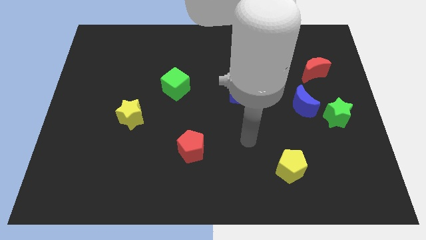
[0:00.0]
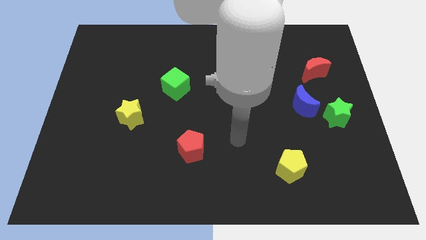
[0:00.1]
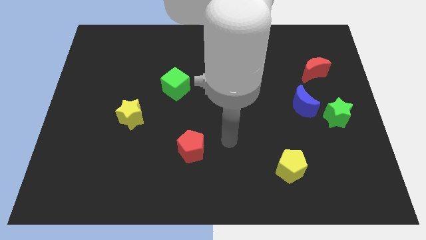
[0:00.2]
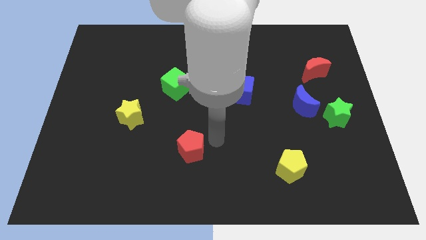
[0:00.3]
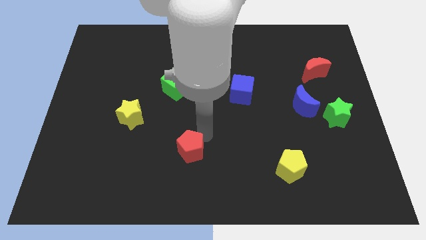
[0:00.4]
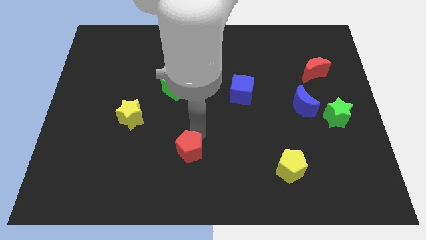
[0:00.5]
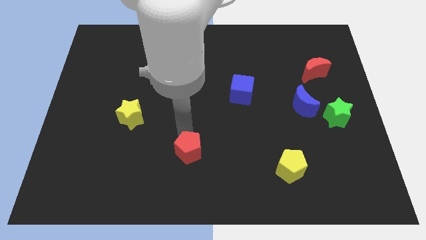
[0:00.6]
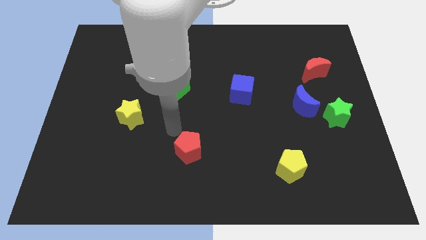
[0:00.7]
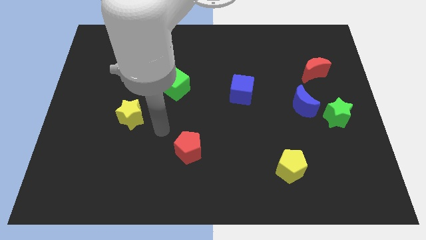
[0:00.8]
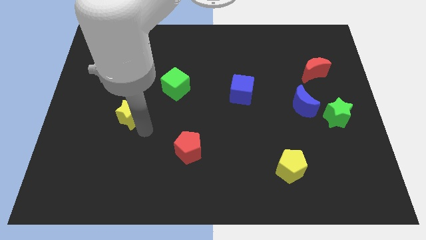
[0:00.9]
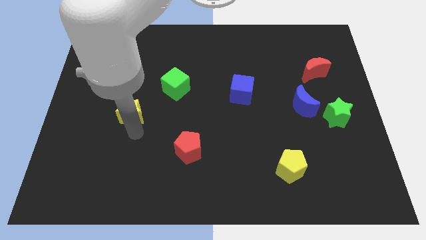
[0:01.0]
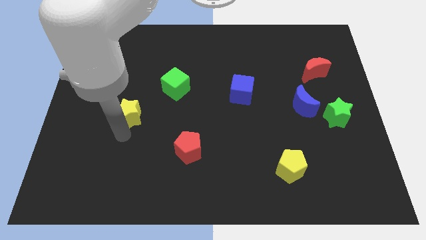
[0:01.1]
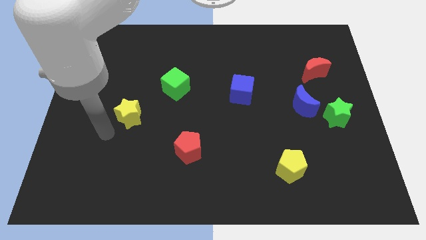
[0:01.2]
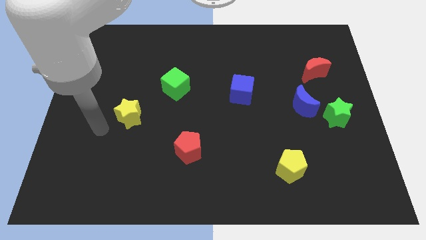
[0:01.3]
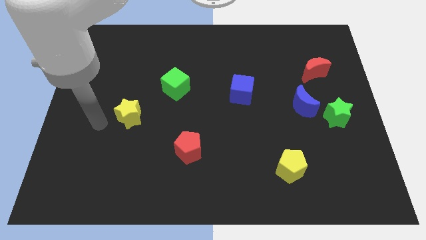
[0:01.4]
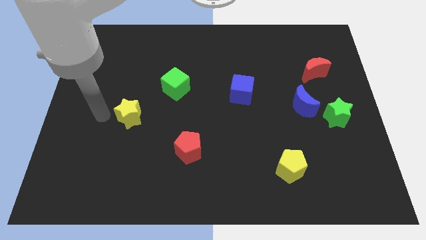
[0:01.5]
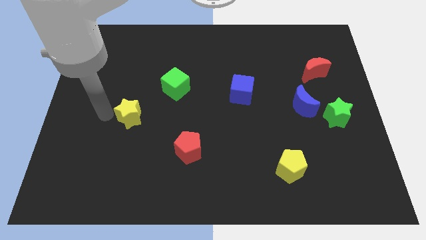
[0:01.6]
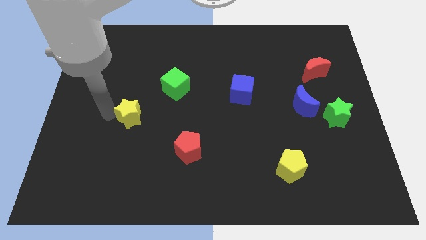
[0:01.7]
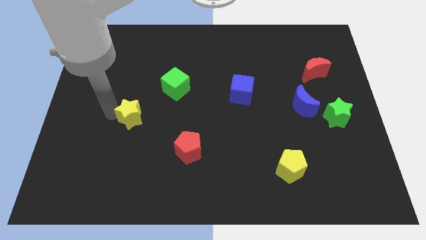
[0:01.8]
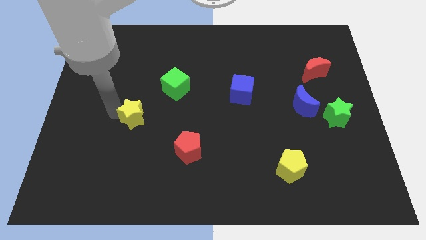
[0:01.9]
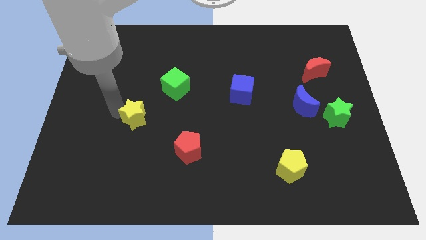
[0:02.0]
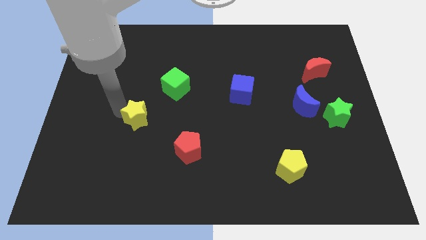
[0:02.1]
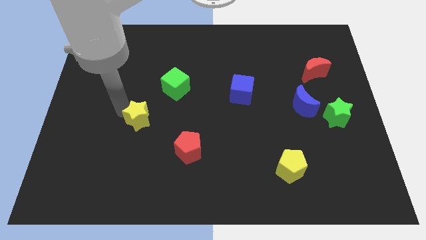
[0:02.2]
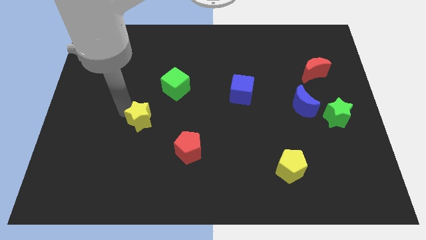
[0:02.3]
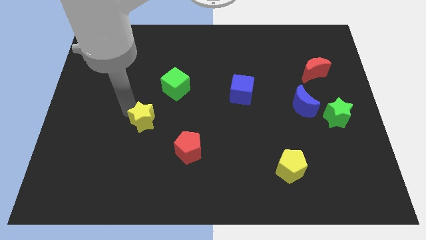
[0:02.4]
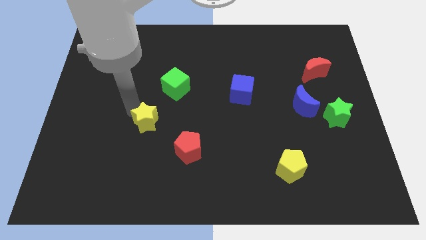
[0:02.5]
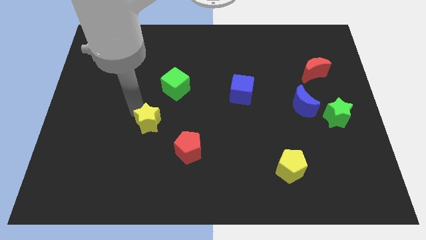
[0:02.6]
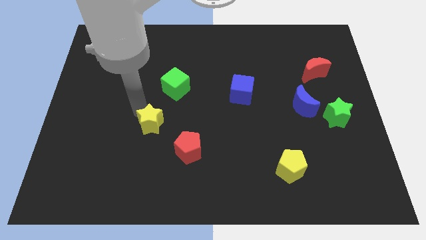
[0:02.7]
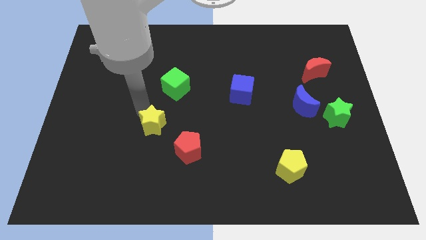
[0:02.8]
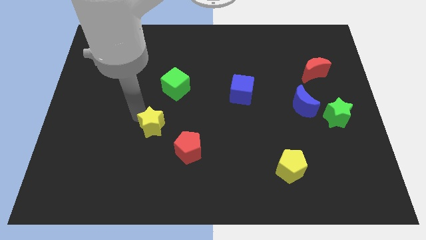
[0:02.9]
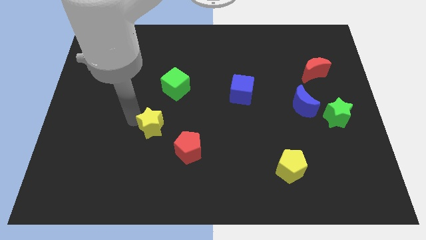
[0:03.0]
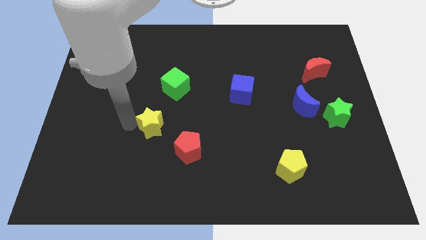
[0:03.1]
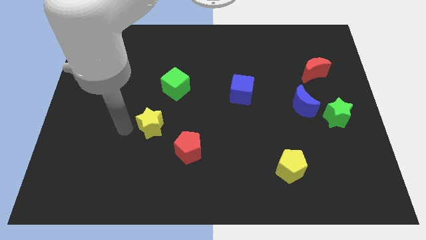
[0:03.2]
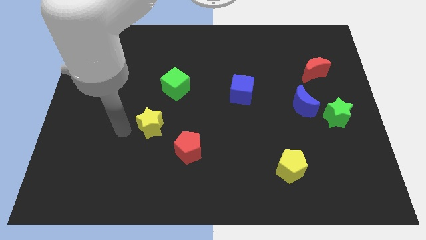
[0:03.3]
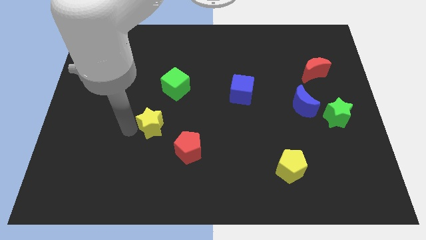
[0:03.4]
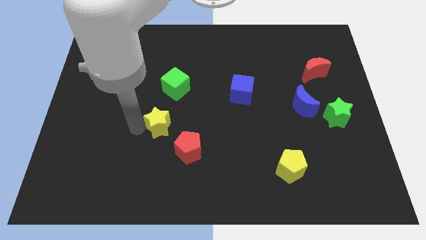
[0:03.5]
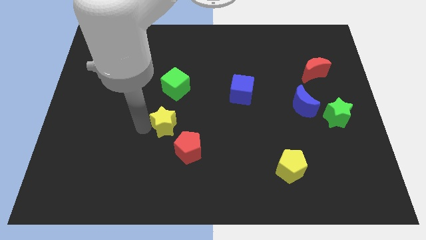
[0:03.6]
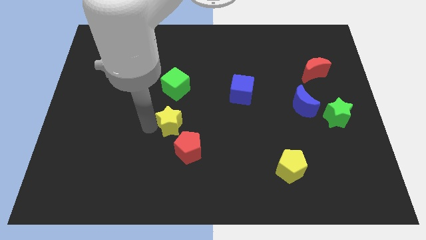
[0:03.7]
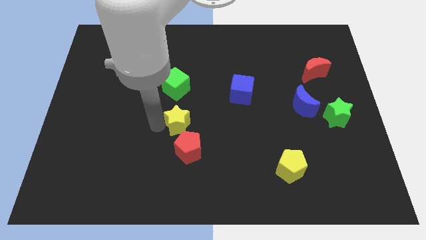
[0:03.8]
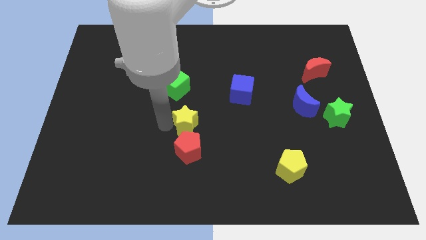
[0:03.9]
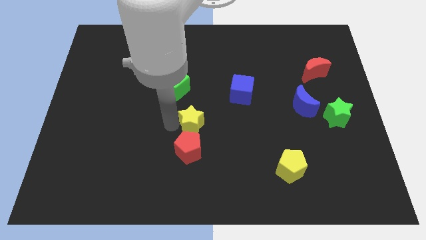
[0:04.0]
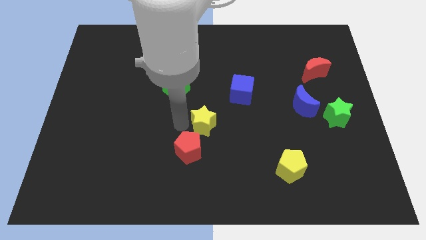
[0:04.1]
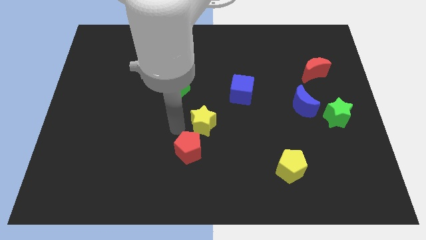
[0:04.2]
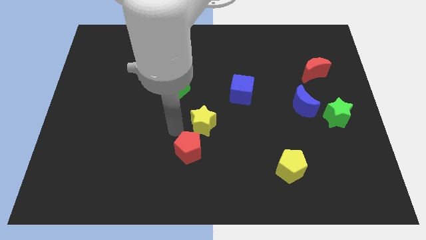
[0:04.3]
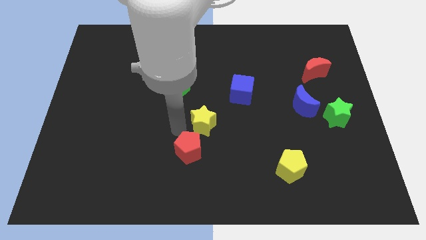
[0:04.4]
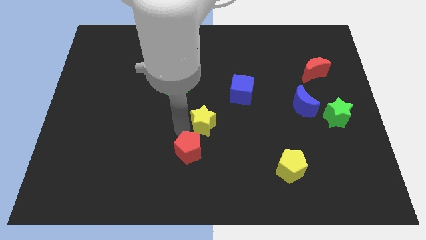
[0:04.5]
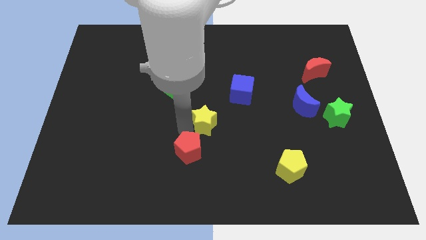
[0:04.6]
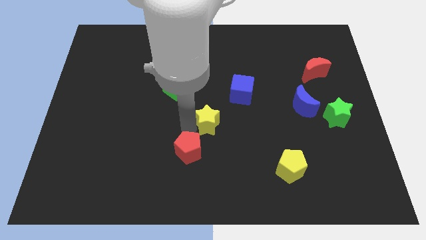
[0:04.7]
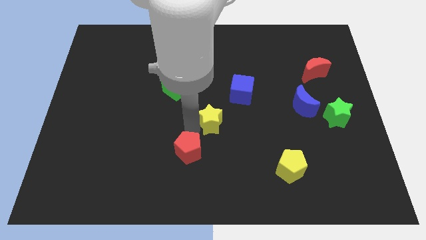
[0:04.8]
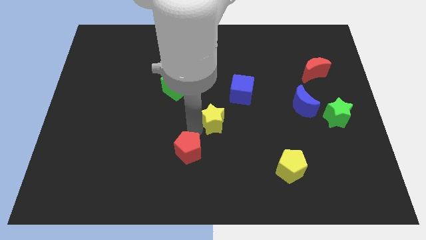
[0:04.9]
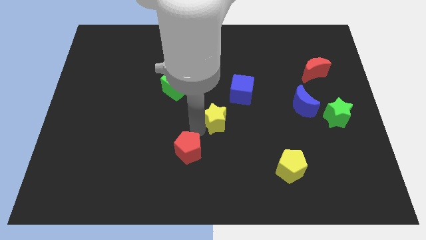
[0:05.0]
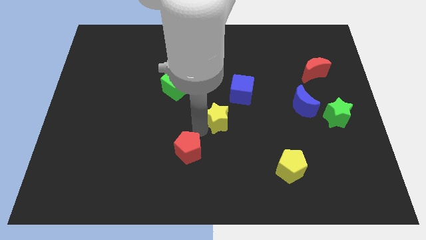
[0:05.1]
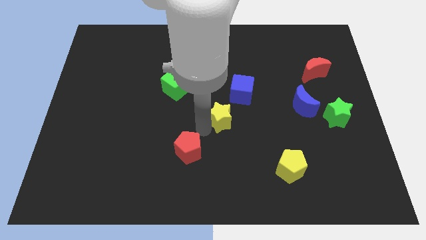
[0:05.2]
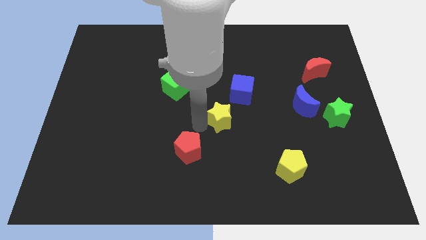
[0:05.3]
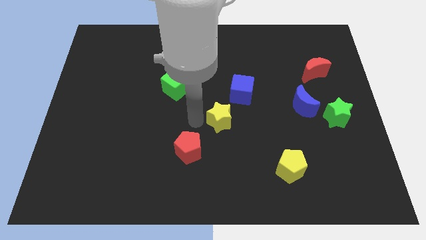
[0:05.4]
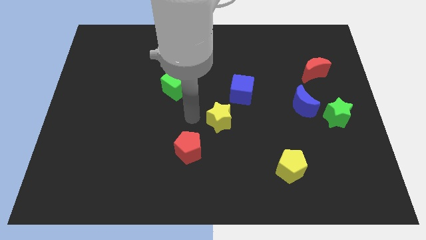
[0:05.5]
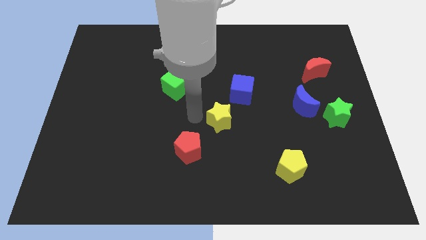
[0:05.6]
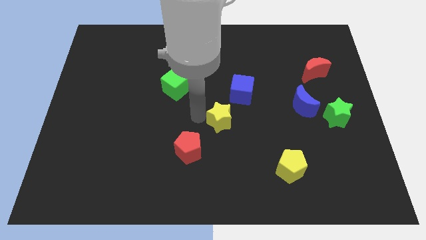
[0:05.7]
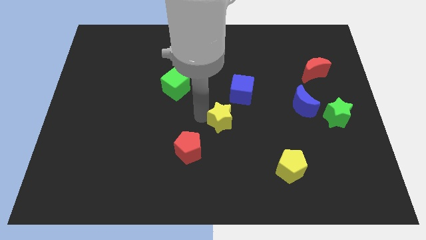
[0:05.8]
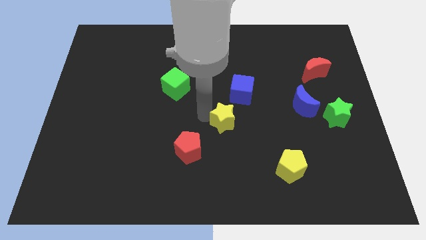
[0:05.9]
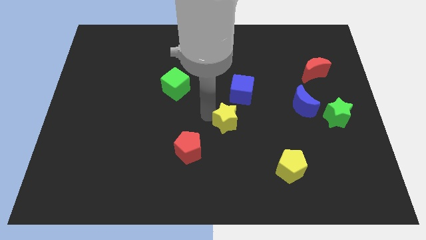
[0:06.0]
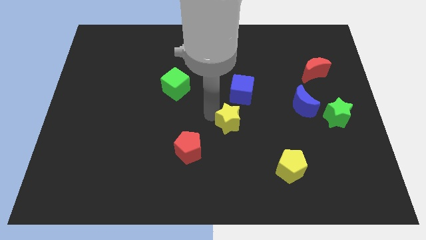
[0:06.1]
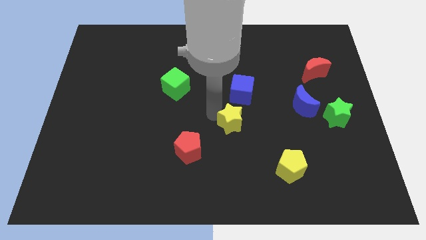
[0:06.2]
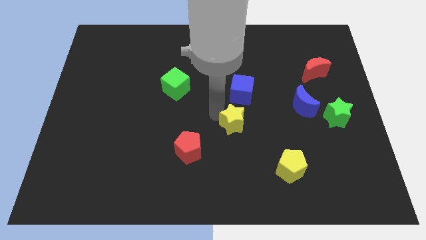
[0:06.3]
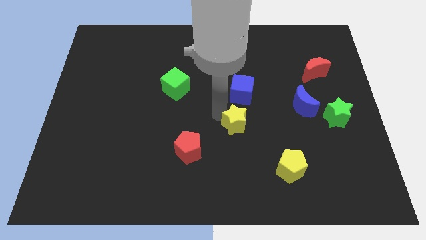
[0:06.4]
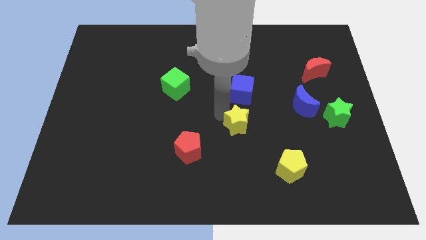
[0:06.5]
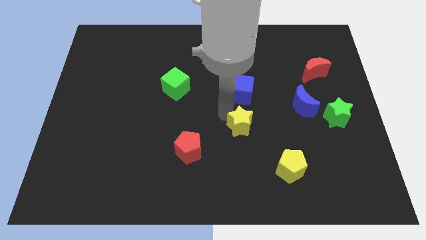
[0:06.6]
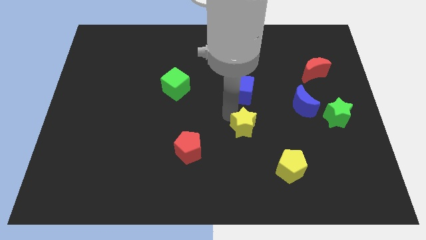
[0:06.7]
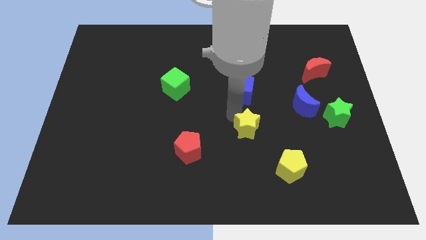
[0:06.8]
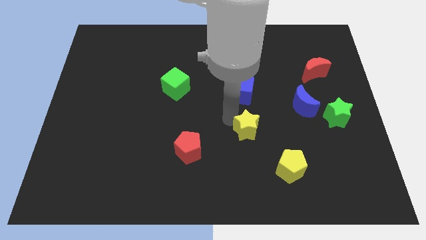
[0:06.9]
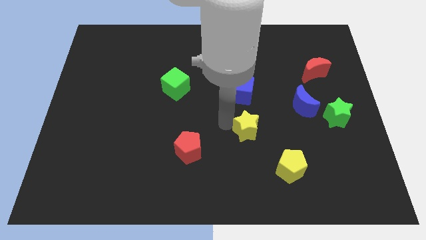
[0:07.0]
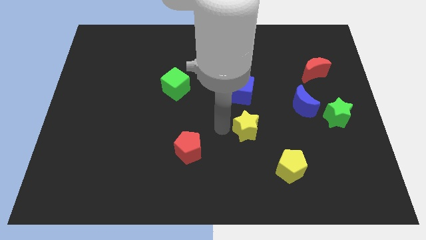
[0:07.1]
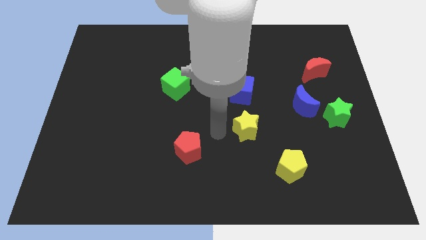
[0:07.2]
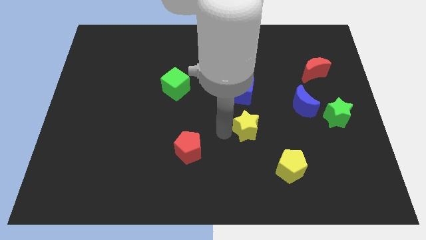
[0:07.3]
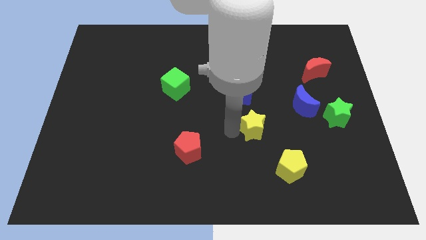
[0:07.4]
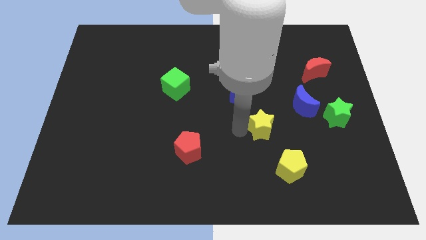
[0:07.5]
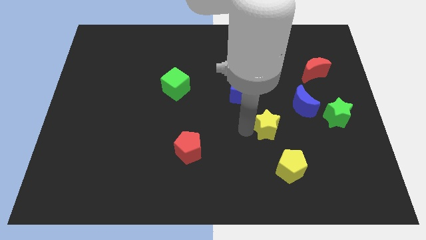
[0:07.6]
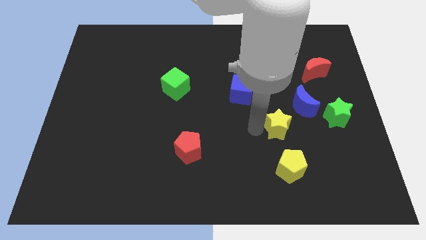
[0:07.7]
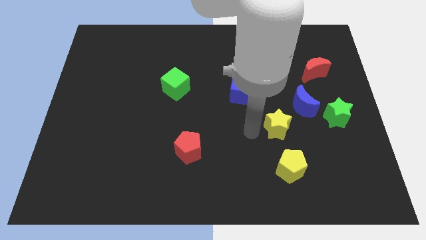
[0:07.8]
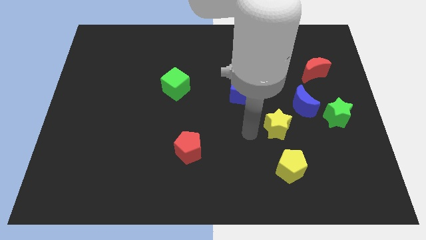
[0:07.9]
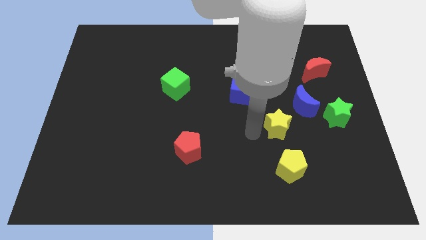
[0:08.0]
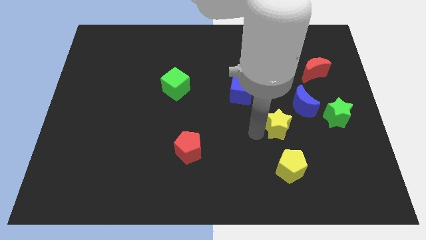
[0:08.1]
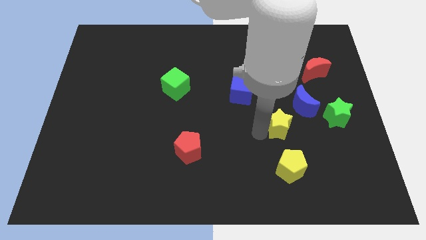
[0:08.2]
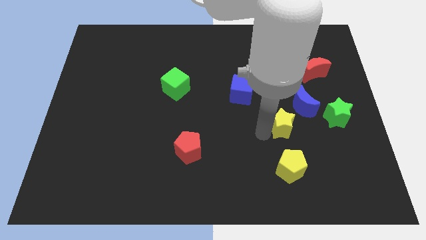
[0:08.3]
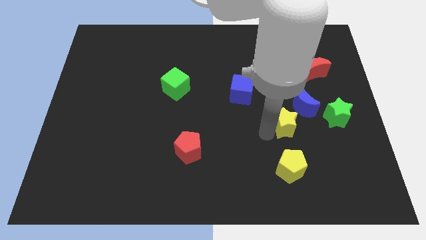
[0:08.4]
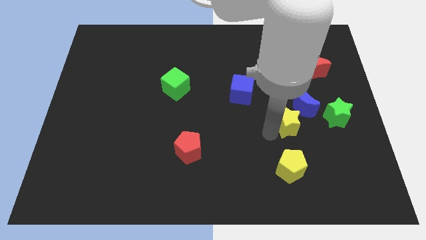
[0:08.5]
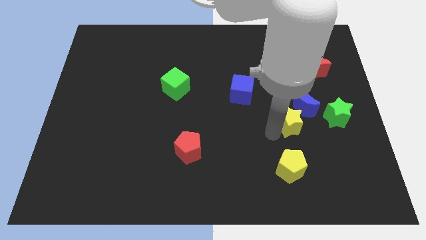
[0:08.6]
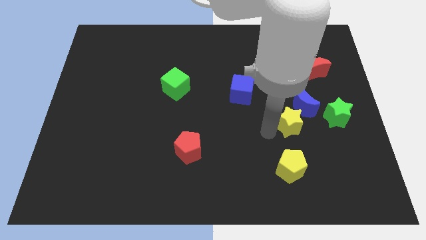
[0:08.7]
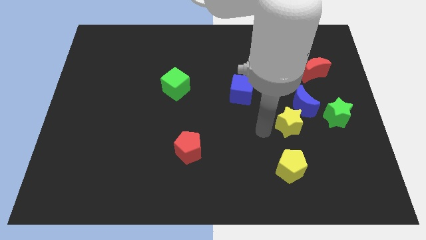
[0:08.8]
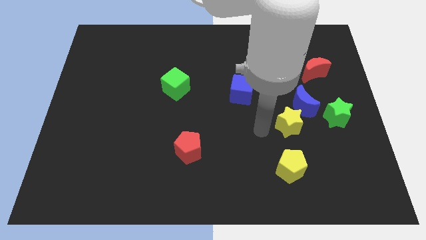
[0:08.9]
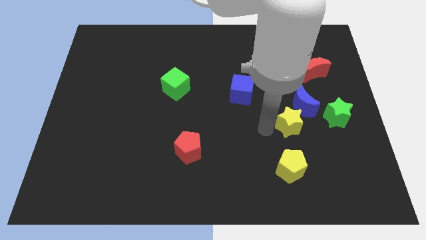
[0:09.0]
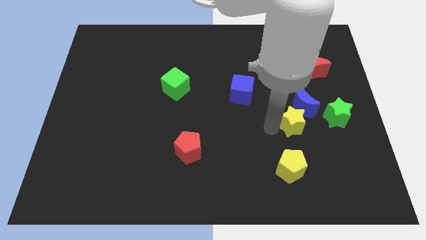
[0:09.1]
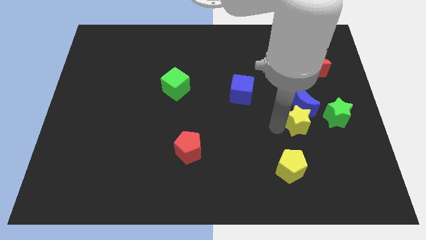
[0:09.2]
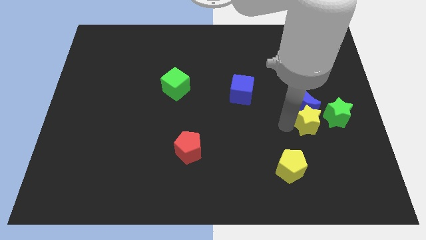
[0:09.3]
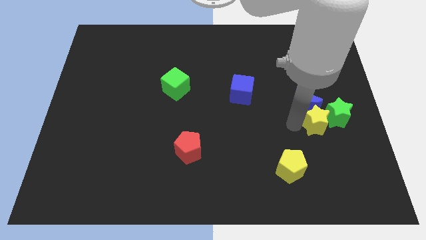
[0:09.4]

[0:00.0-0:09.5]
put the yellow star close to the green star
